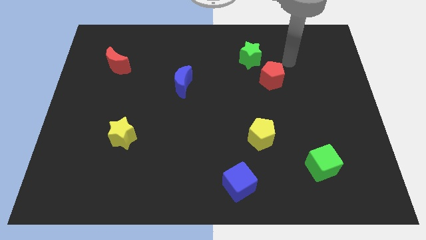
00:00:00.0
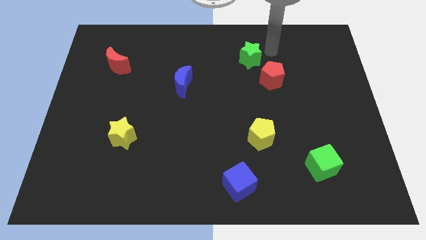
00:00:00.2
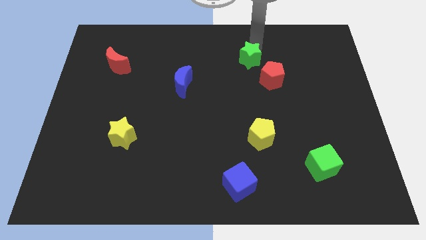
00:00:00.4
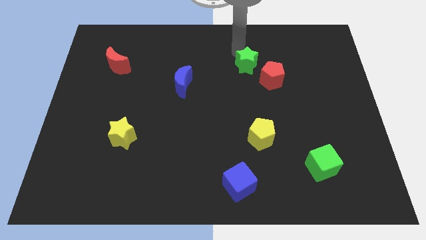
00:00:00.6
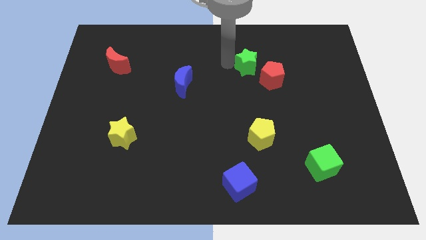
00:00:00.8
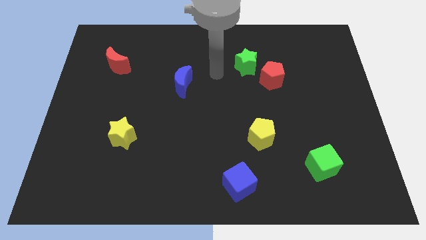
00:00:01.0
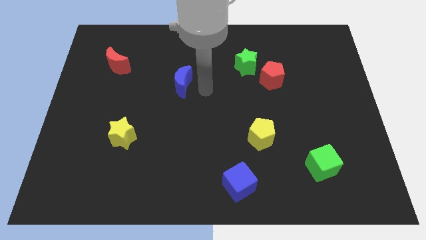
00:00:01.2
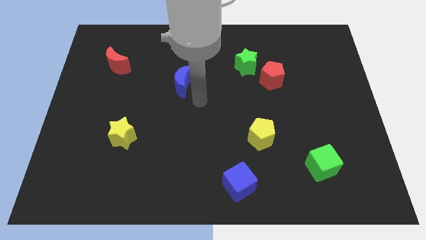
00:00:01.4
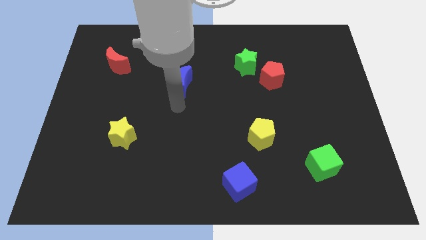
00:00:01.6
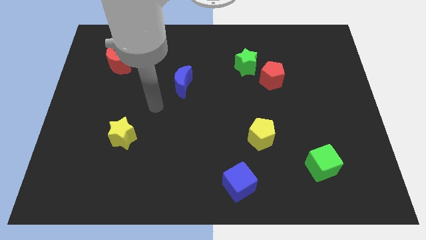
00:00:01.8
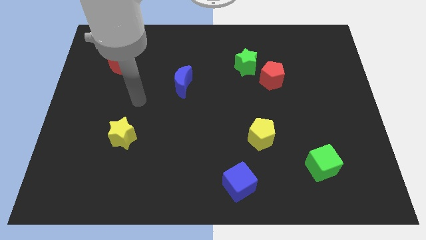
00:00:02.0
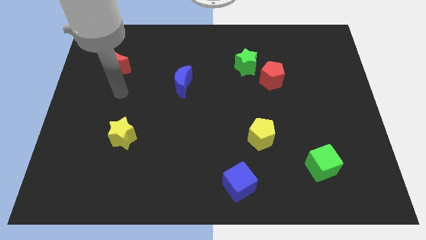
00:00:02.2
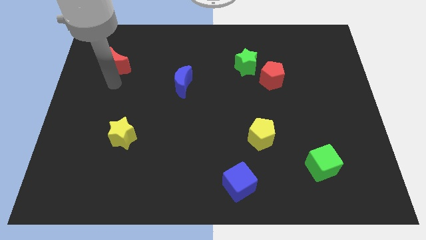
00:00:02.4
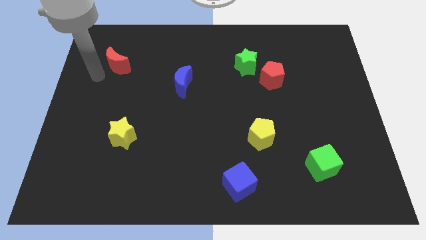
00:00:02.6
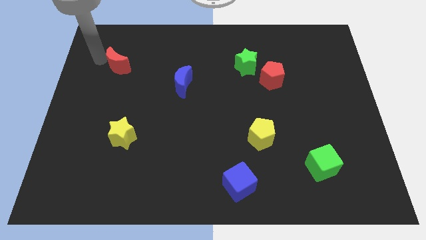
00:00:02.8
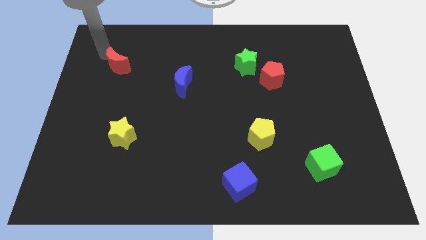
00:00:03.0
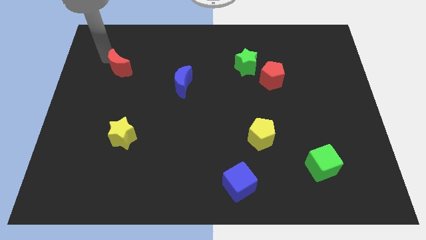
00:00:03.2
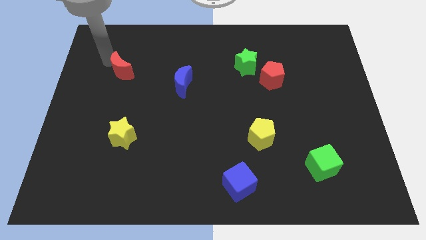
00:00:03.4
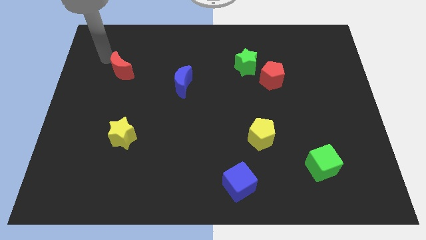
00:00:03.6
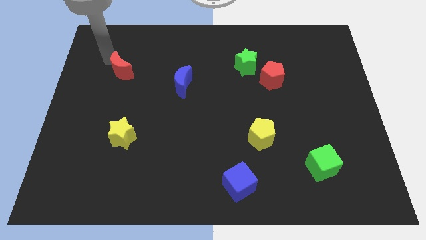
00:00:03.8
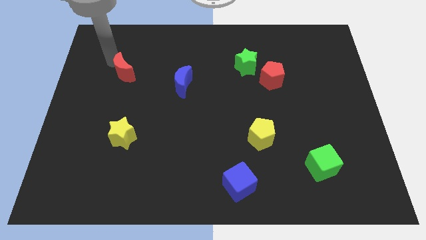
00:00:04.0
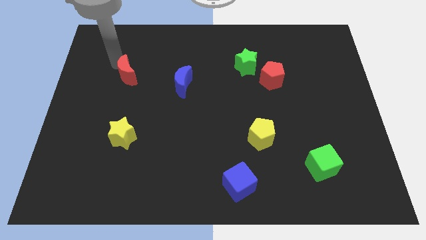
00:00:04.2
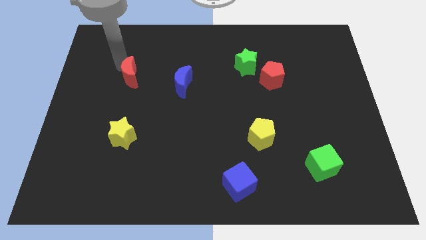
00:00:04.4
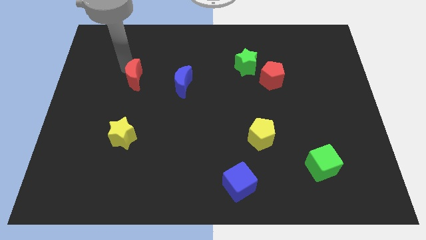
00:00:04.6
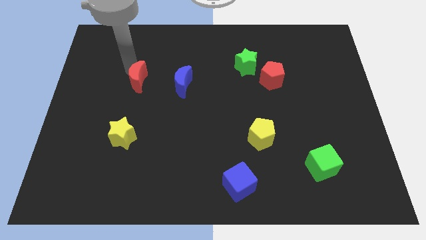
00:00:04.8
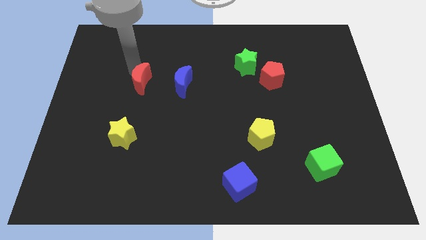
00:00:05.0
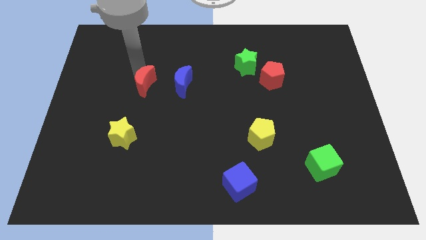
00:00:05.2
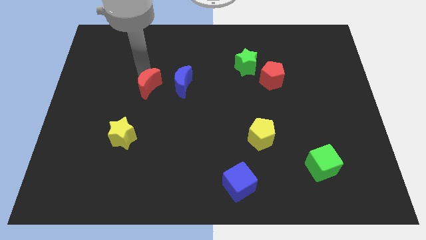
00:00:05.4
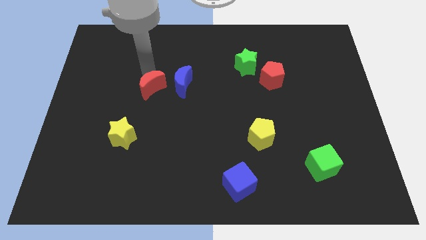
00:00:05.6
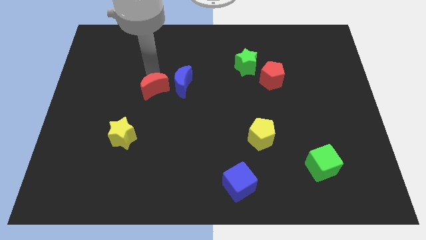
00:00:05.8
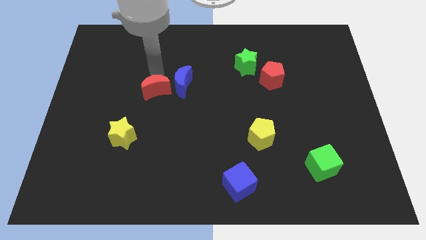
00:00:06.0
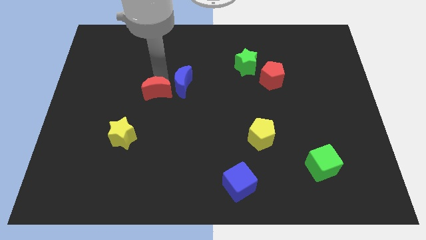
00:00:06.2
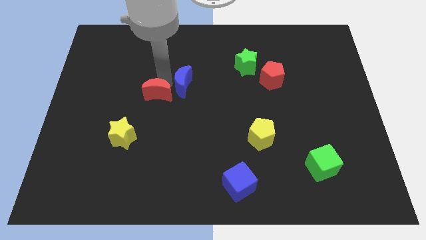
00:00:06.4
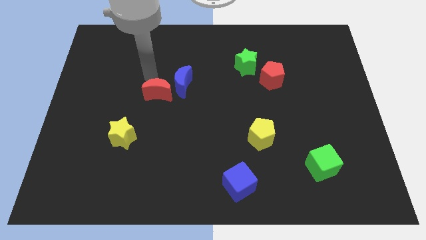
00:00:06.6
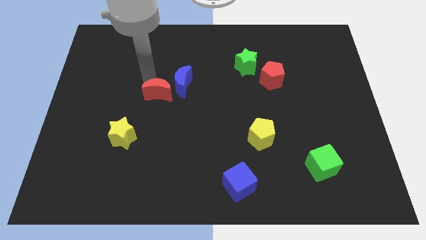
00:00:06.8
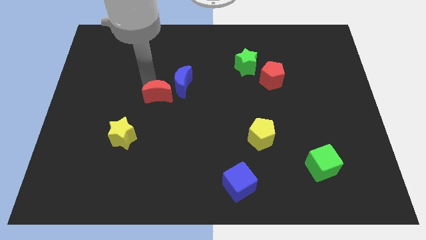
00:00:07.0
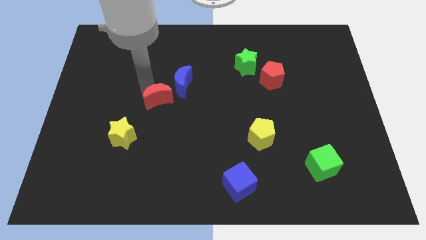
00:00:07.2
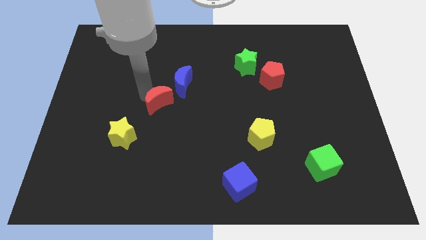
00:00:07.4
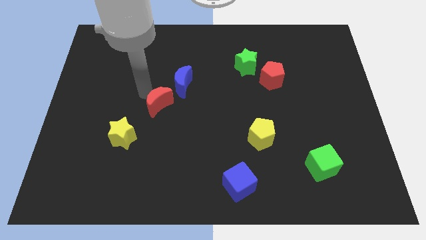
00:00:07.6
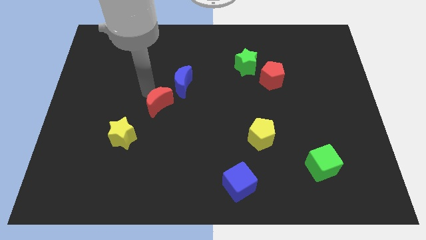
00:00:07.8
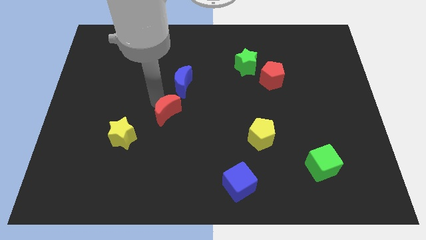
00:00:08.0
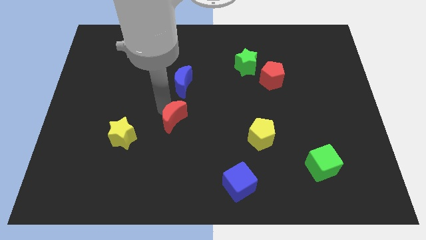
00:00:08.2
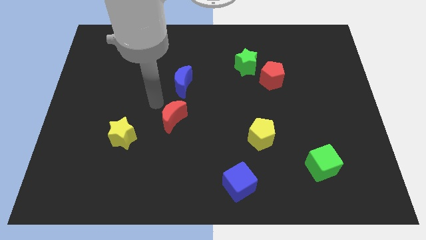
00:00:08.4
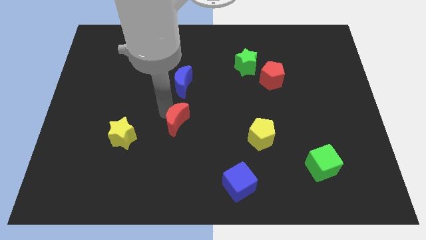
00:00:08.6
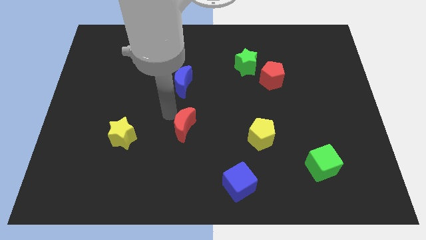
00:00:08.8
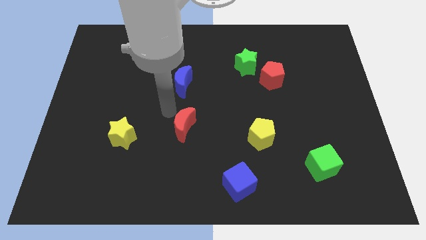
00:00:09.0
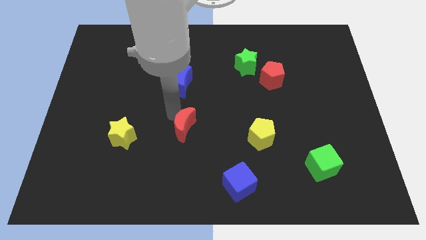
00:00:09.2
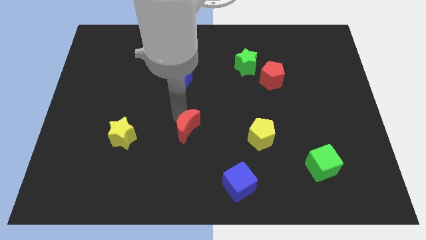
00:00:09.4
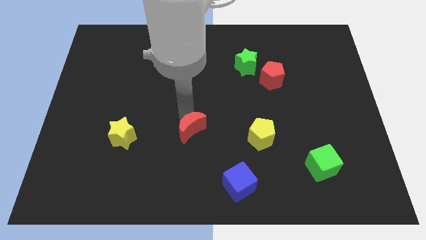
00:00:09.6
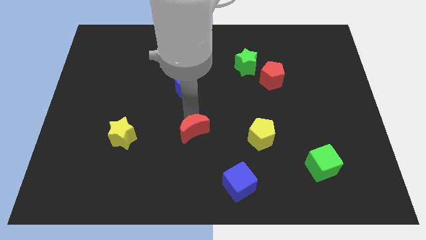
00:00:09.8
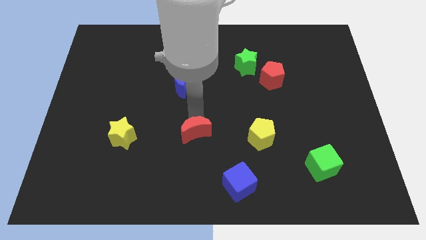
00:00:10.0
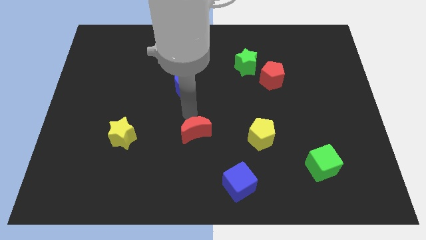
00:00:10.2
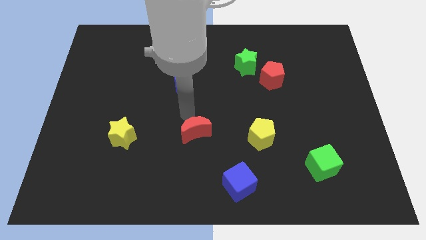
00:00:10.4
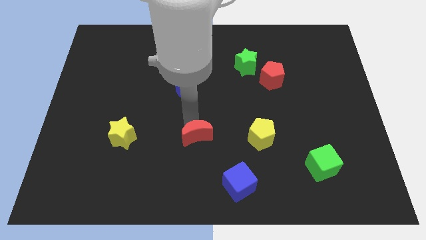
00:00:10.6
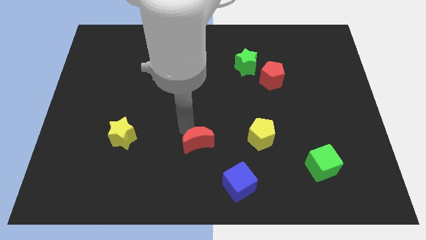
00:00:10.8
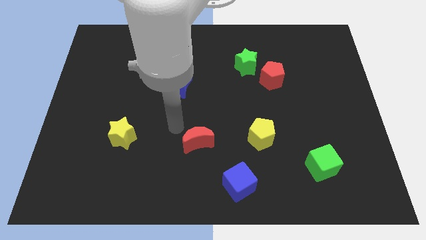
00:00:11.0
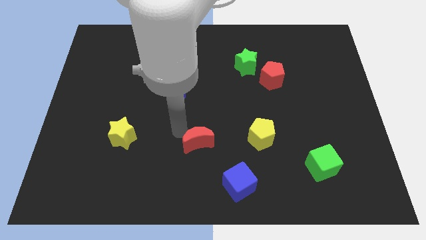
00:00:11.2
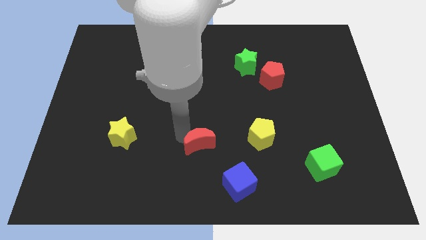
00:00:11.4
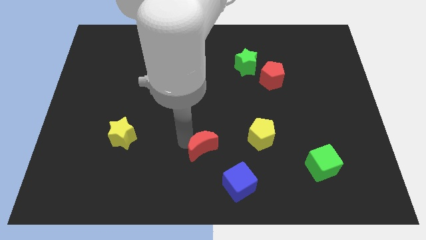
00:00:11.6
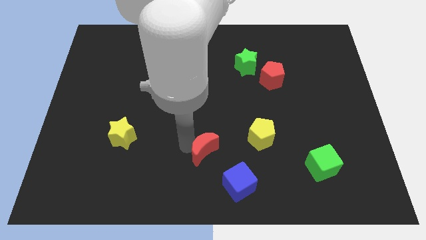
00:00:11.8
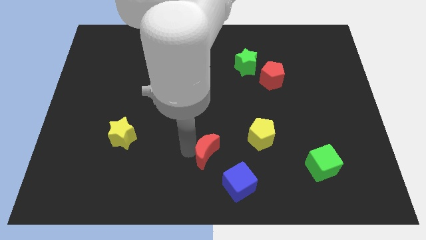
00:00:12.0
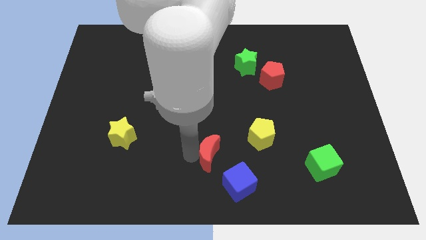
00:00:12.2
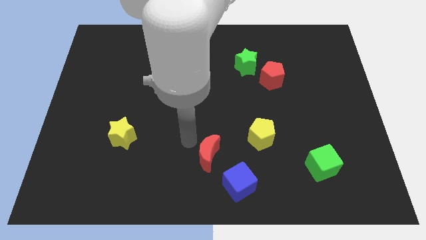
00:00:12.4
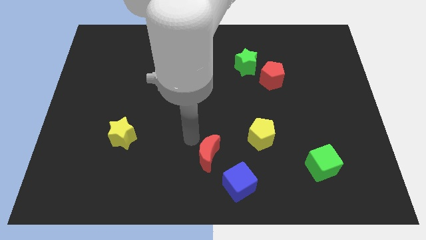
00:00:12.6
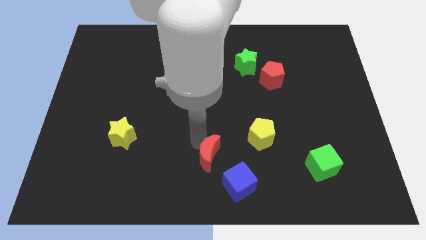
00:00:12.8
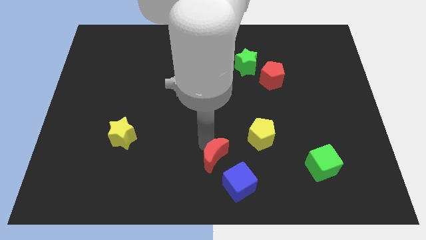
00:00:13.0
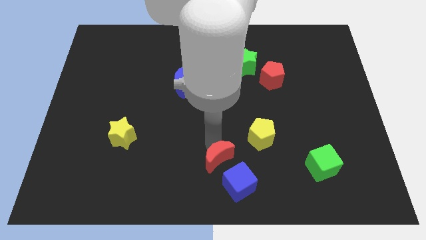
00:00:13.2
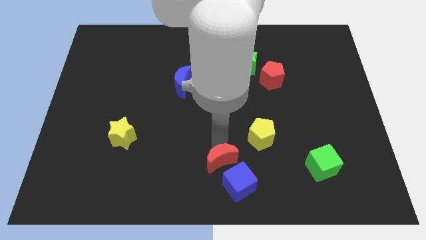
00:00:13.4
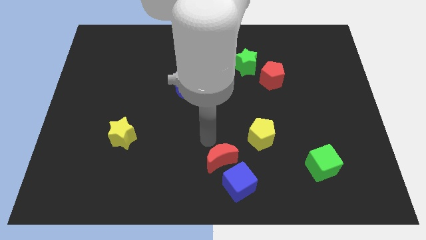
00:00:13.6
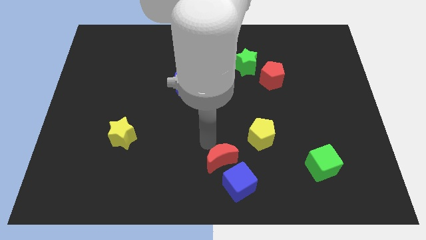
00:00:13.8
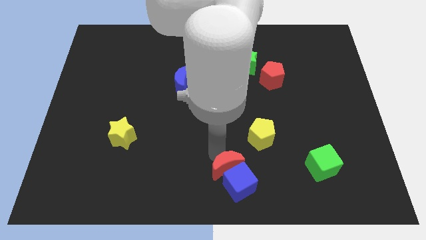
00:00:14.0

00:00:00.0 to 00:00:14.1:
move the red moon towards the blue cube

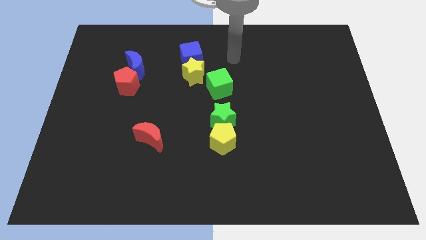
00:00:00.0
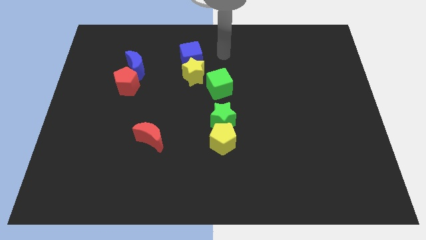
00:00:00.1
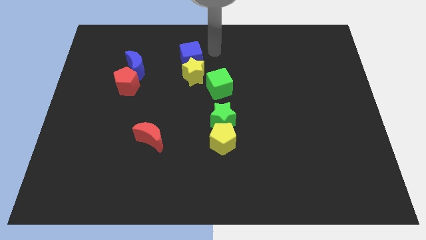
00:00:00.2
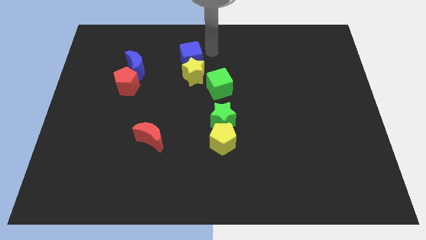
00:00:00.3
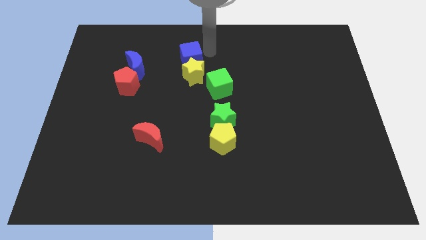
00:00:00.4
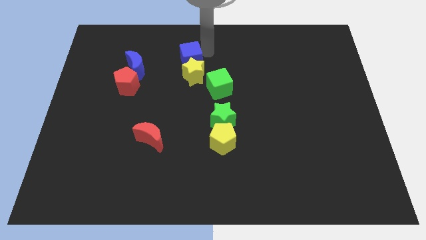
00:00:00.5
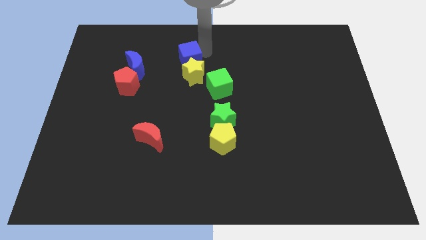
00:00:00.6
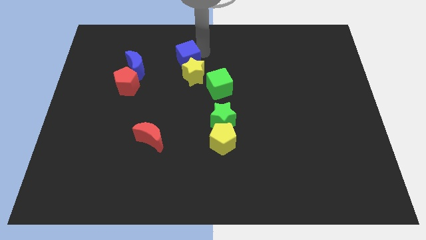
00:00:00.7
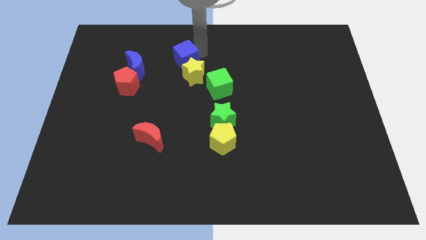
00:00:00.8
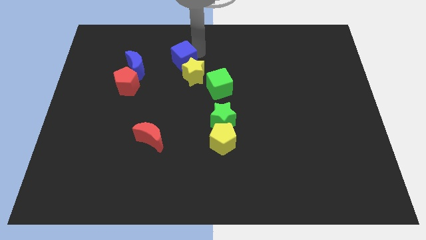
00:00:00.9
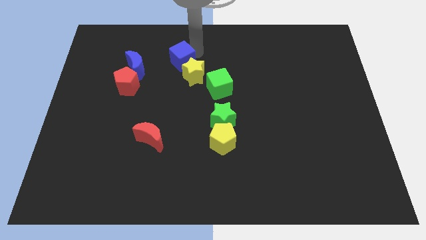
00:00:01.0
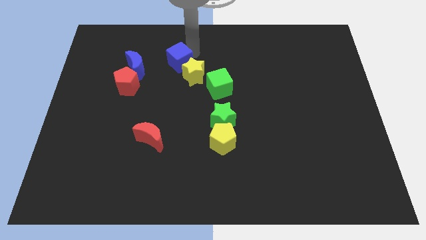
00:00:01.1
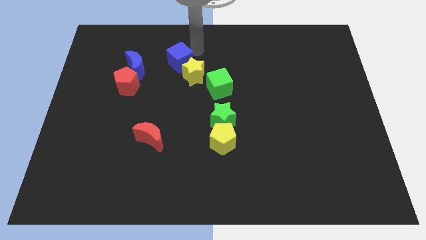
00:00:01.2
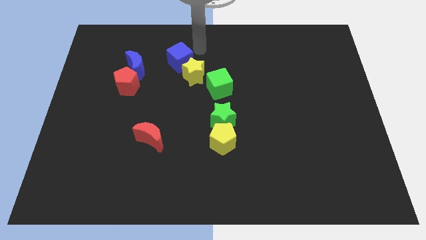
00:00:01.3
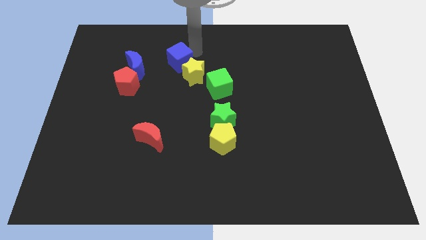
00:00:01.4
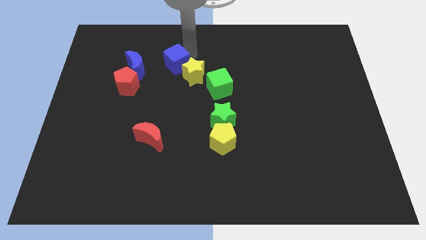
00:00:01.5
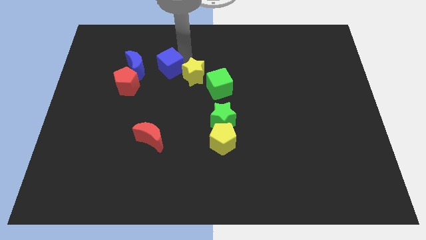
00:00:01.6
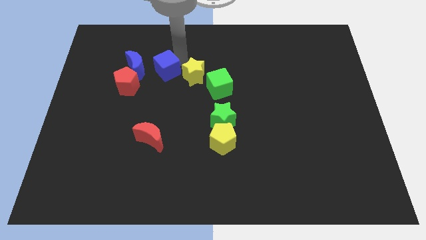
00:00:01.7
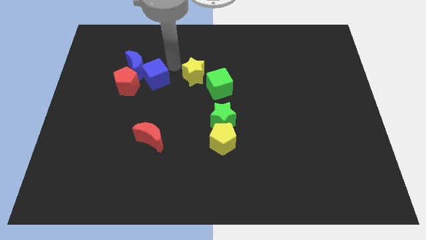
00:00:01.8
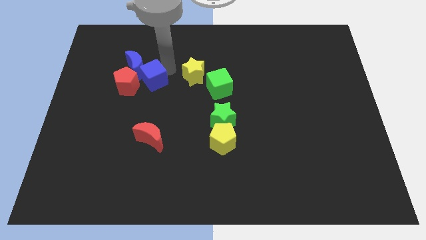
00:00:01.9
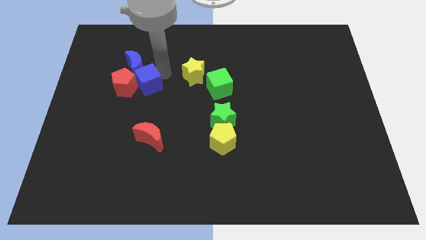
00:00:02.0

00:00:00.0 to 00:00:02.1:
push the blue cube to the red pentagon
